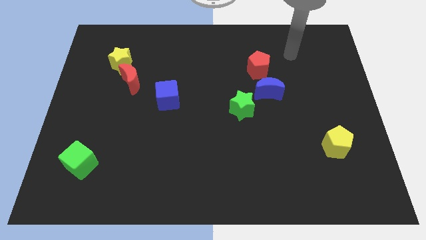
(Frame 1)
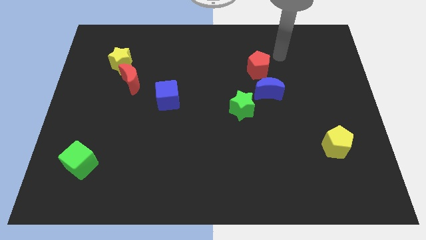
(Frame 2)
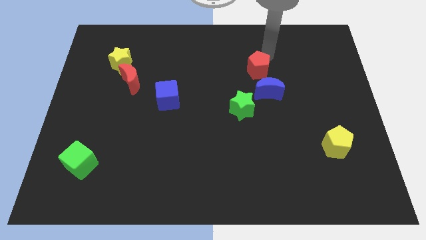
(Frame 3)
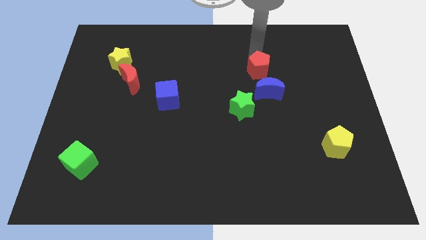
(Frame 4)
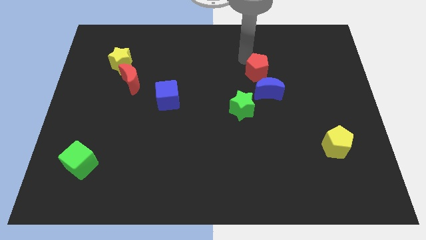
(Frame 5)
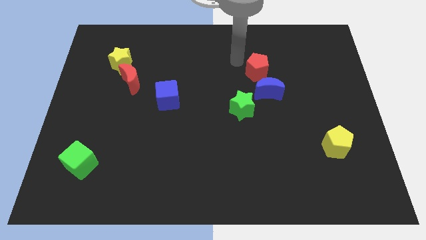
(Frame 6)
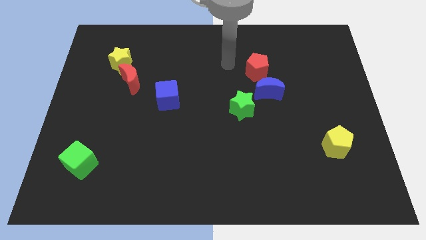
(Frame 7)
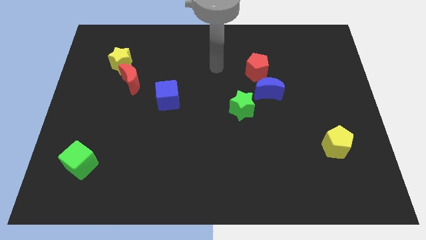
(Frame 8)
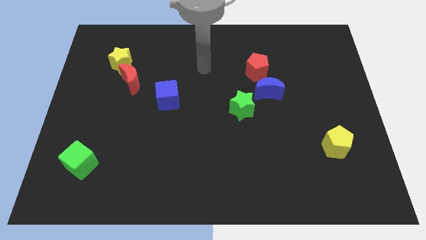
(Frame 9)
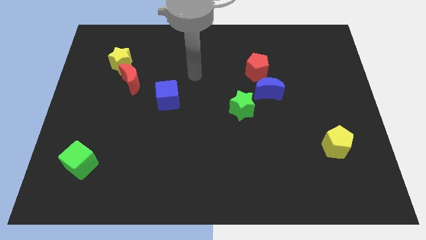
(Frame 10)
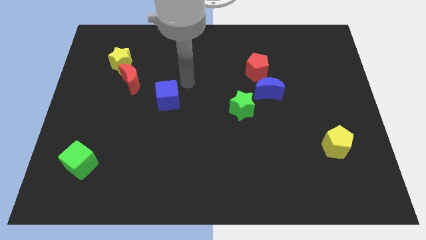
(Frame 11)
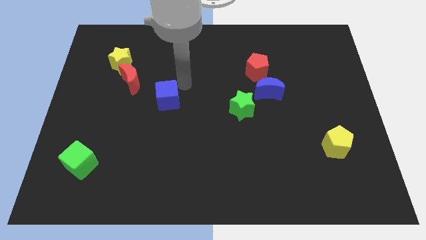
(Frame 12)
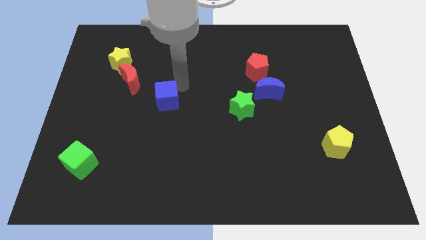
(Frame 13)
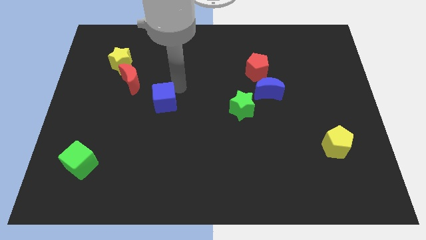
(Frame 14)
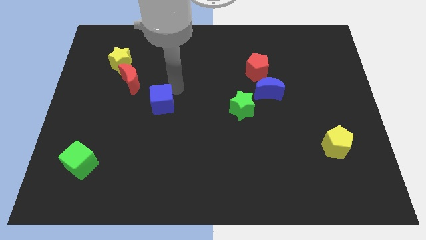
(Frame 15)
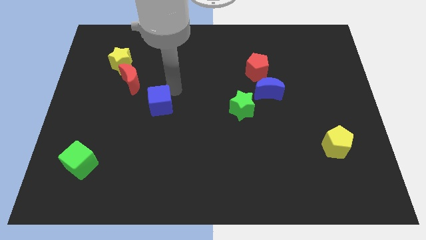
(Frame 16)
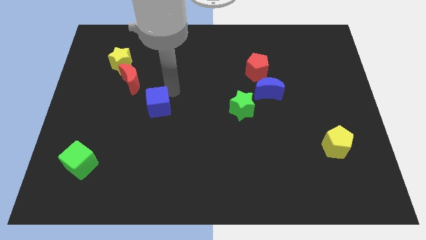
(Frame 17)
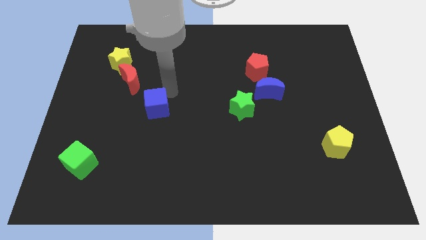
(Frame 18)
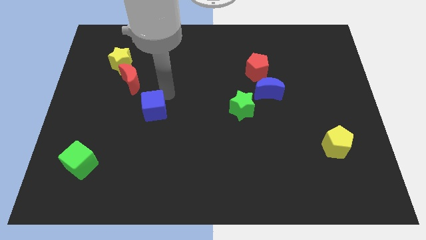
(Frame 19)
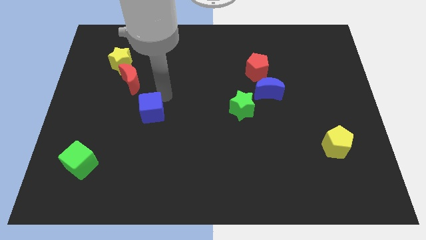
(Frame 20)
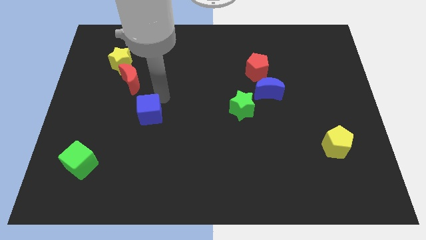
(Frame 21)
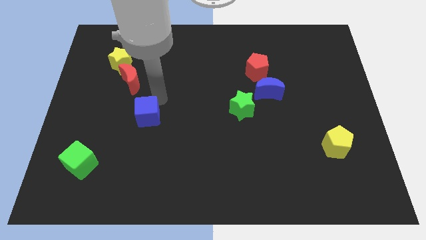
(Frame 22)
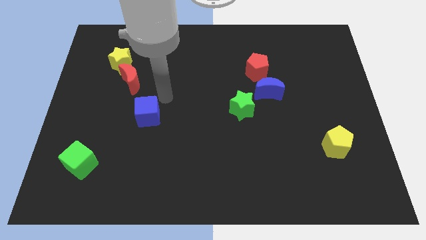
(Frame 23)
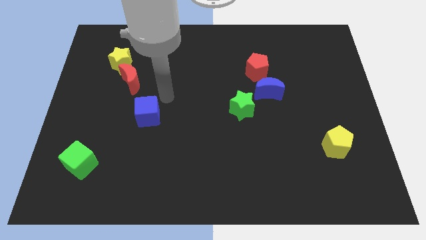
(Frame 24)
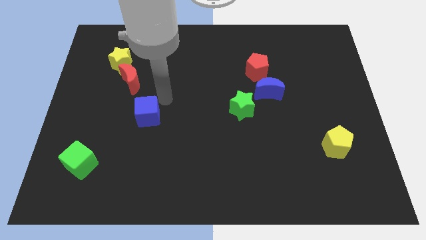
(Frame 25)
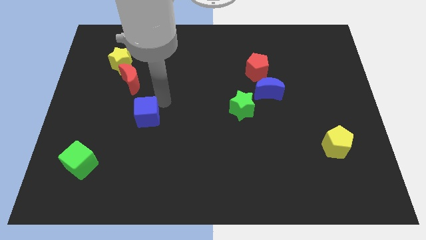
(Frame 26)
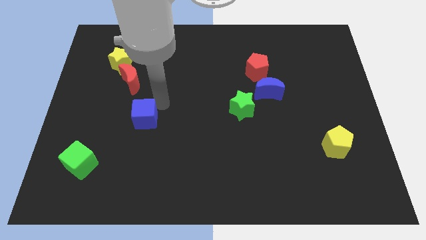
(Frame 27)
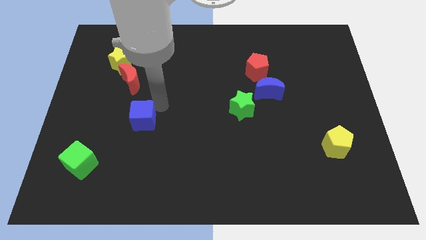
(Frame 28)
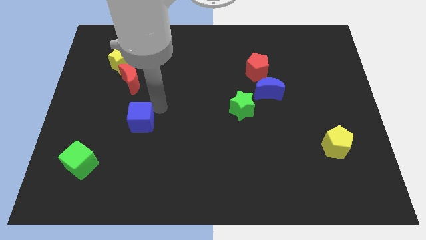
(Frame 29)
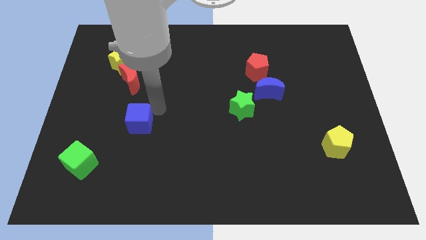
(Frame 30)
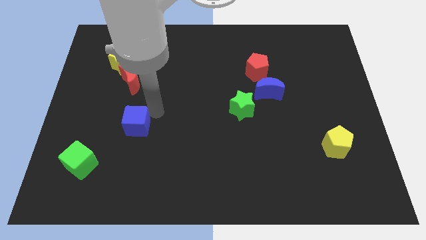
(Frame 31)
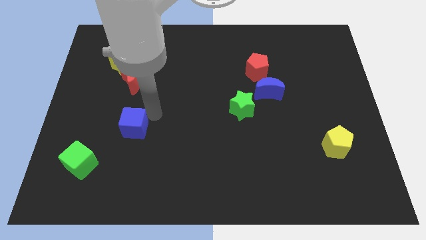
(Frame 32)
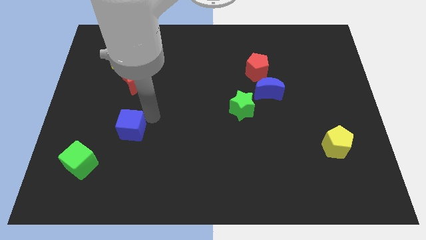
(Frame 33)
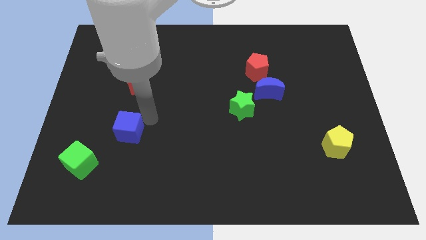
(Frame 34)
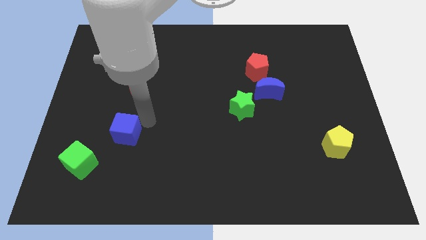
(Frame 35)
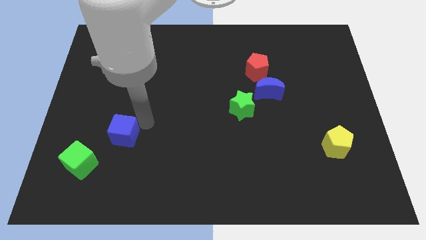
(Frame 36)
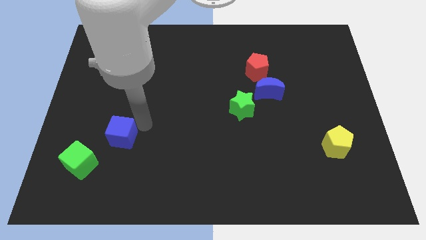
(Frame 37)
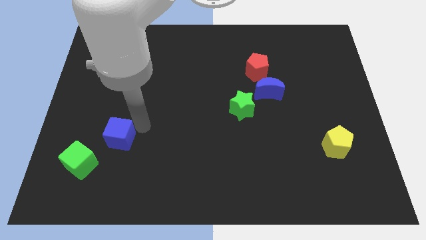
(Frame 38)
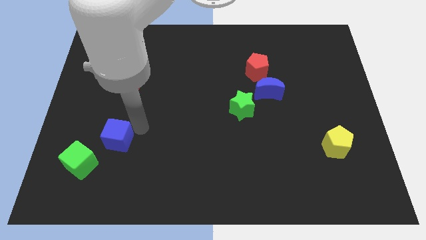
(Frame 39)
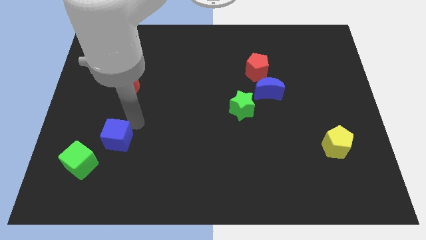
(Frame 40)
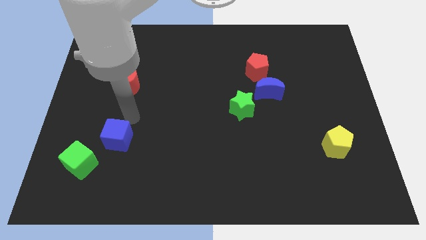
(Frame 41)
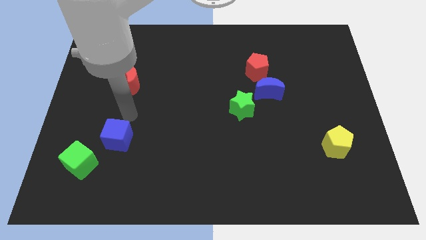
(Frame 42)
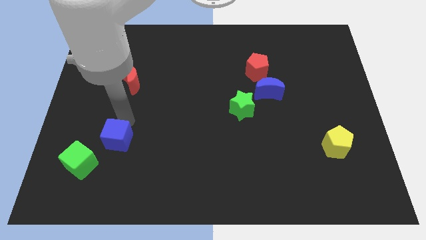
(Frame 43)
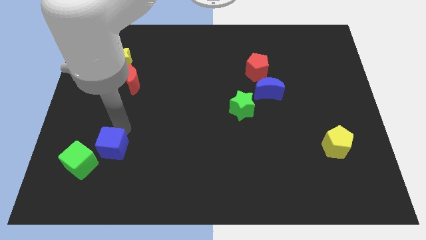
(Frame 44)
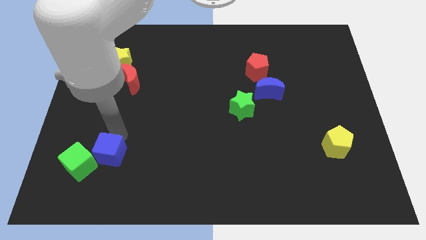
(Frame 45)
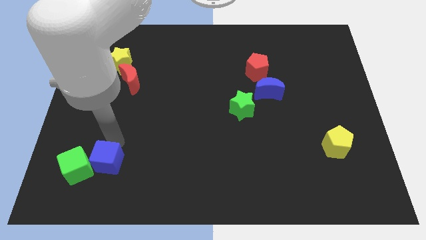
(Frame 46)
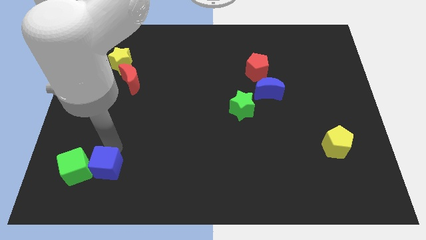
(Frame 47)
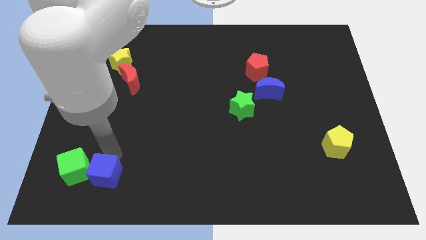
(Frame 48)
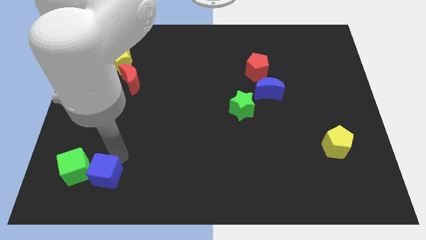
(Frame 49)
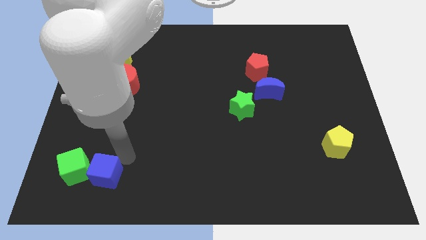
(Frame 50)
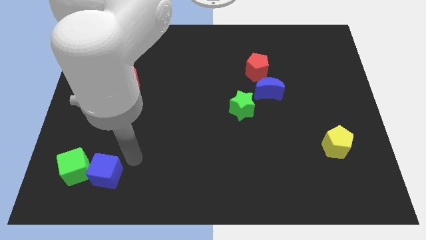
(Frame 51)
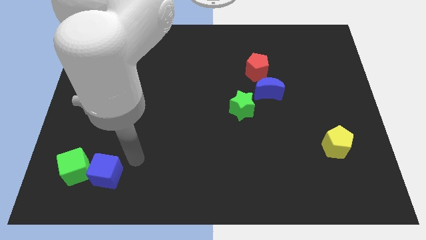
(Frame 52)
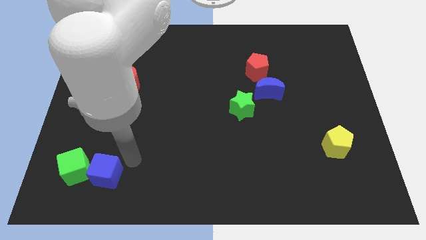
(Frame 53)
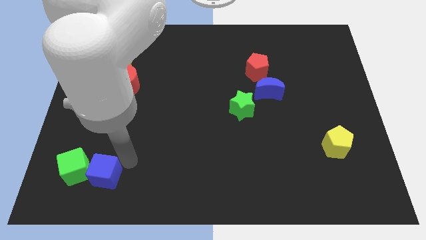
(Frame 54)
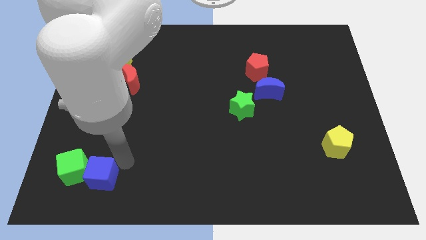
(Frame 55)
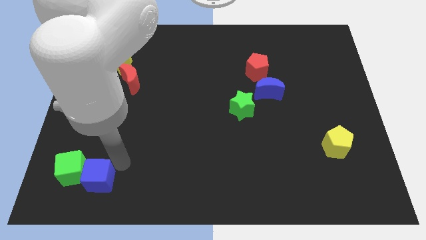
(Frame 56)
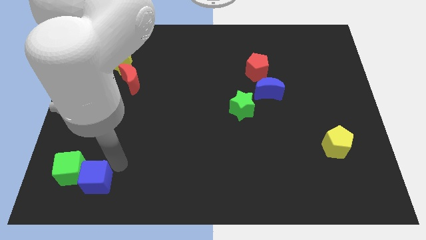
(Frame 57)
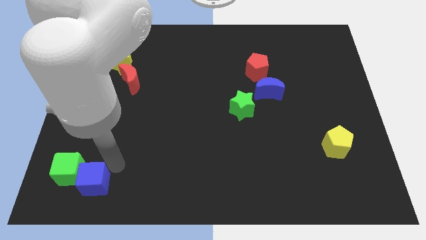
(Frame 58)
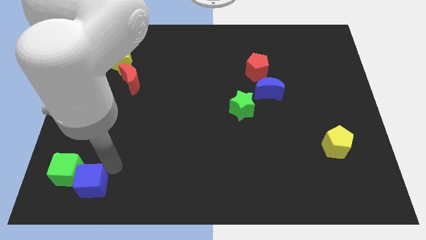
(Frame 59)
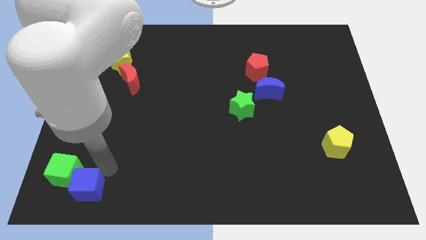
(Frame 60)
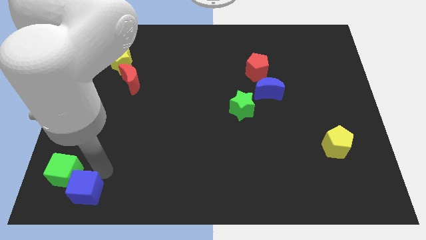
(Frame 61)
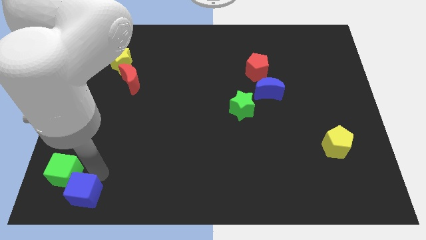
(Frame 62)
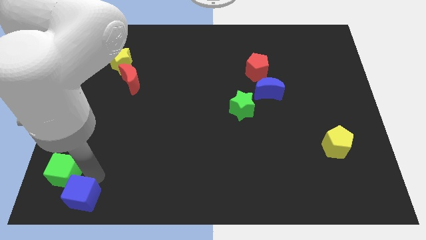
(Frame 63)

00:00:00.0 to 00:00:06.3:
push the blue cube to the bottom left of the board

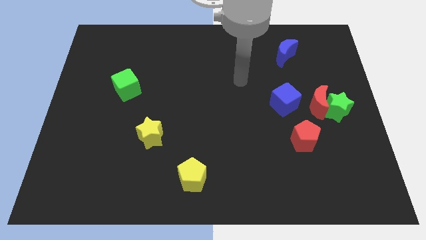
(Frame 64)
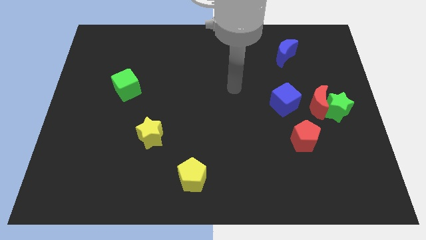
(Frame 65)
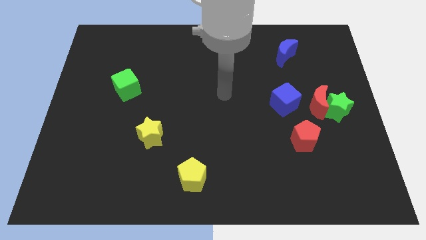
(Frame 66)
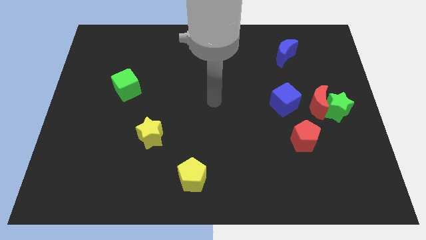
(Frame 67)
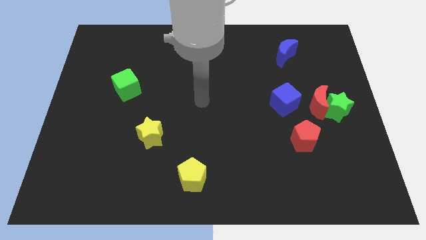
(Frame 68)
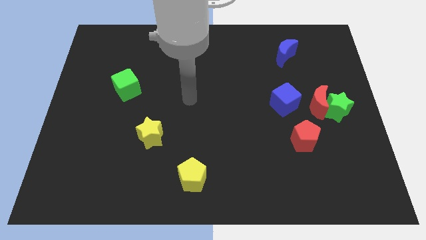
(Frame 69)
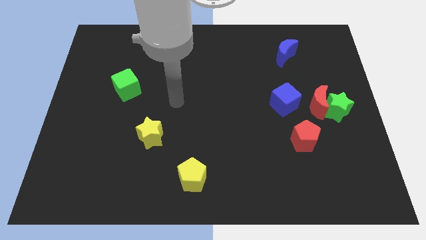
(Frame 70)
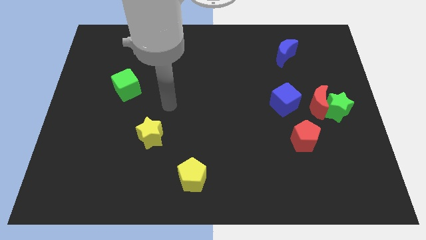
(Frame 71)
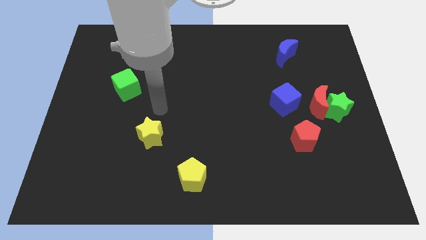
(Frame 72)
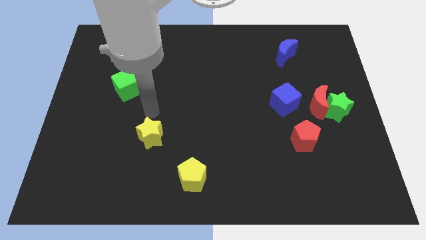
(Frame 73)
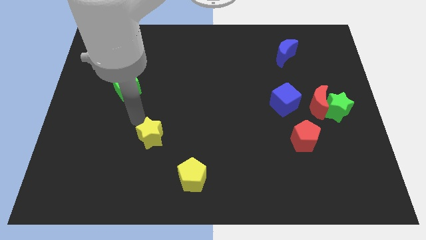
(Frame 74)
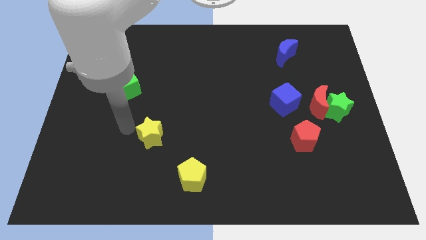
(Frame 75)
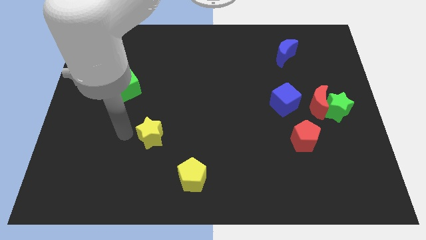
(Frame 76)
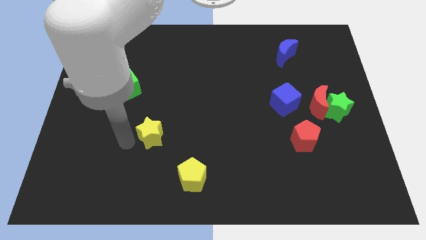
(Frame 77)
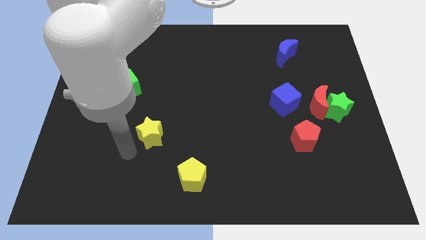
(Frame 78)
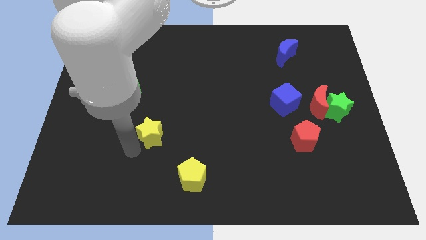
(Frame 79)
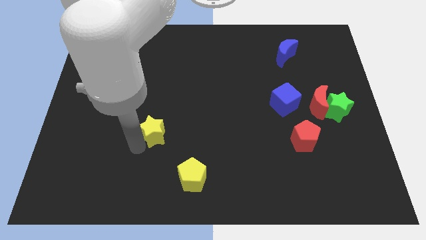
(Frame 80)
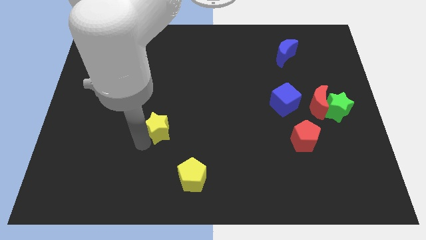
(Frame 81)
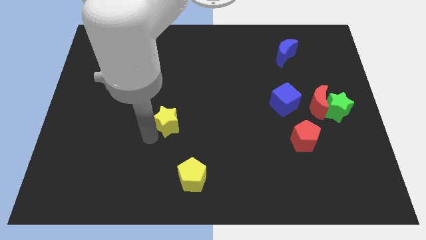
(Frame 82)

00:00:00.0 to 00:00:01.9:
slide the yellow star to the center of the board
